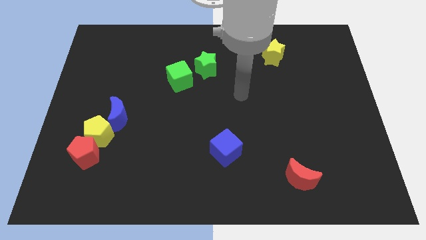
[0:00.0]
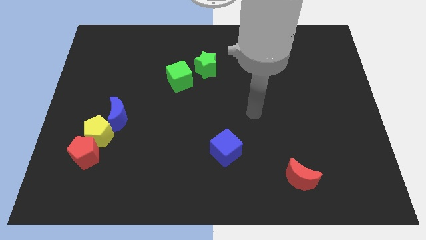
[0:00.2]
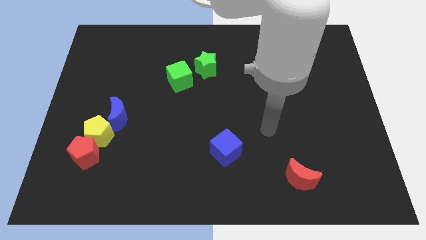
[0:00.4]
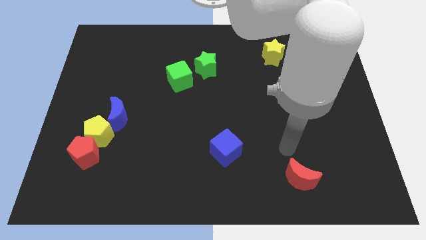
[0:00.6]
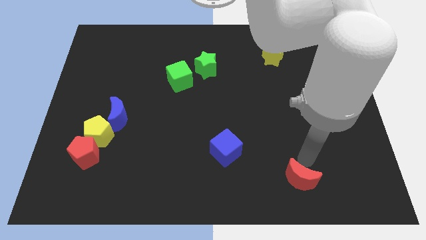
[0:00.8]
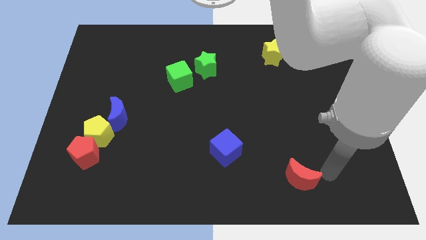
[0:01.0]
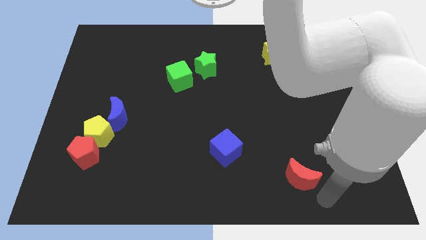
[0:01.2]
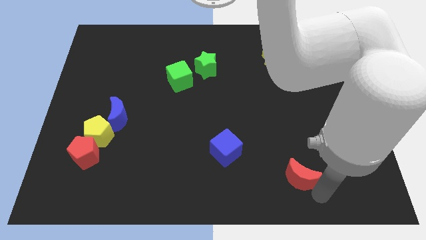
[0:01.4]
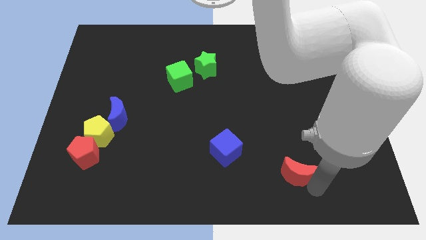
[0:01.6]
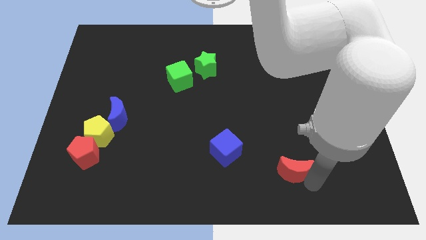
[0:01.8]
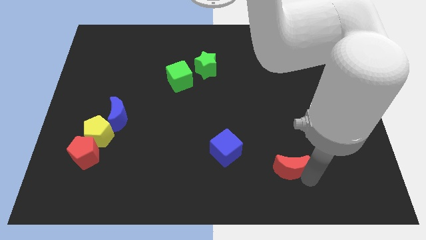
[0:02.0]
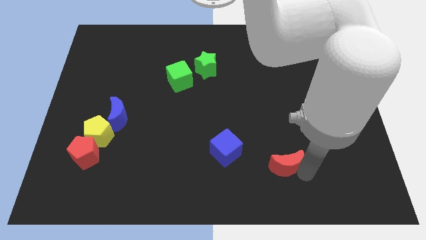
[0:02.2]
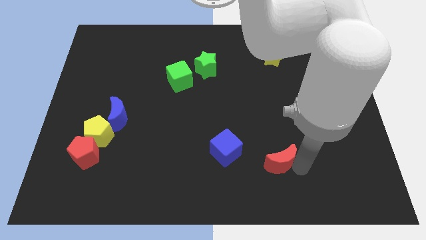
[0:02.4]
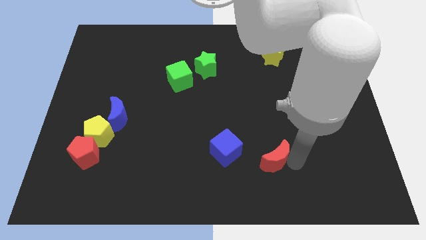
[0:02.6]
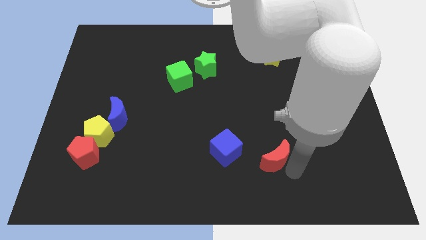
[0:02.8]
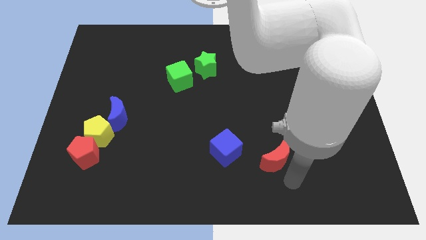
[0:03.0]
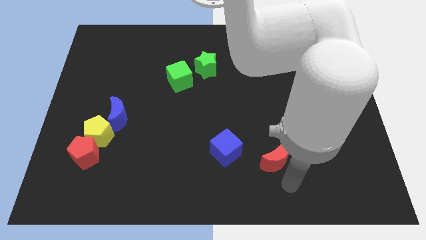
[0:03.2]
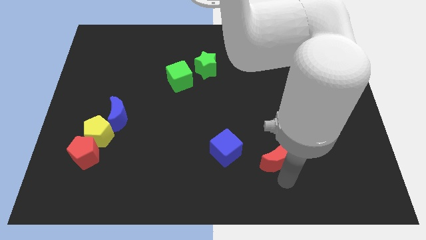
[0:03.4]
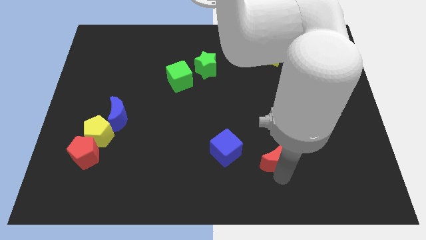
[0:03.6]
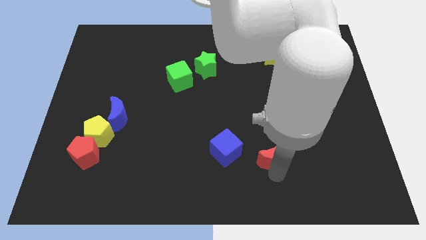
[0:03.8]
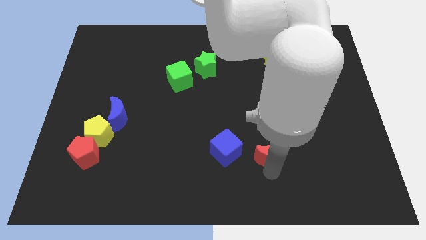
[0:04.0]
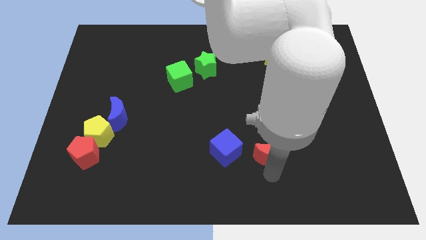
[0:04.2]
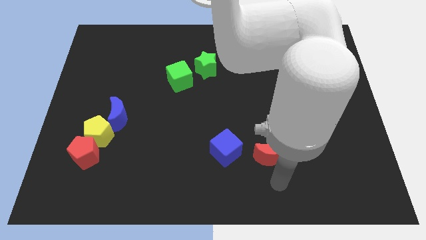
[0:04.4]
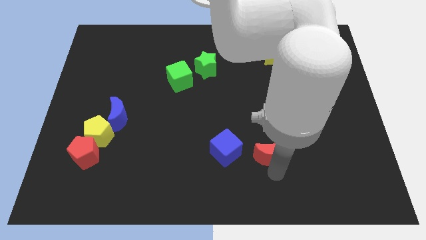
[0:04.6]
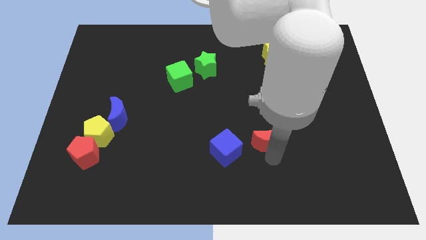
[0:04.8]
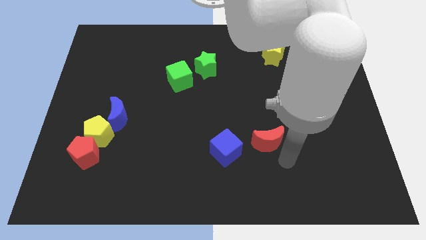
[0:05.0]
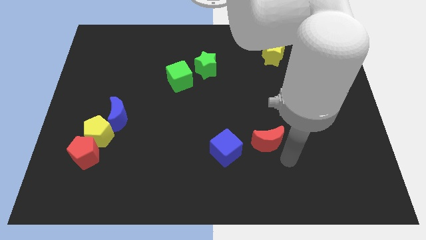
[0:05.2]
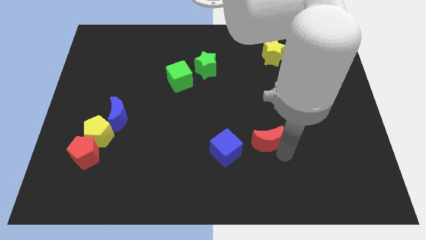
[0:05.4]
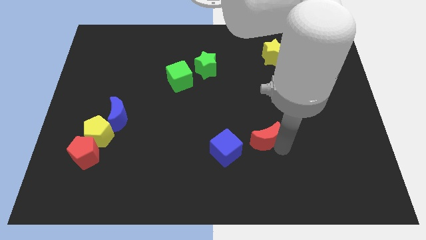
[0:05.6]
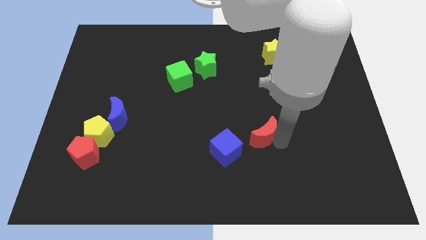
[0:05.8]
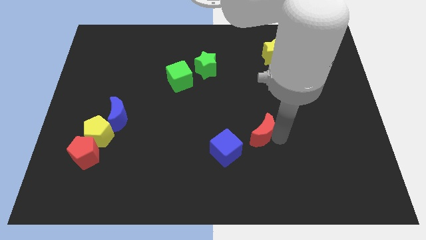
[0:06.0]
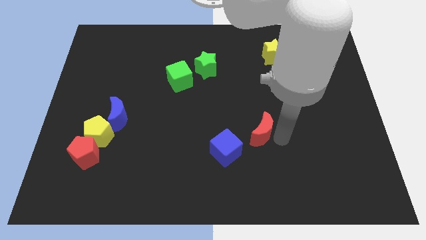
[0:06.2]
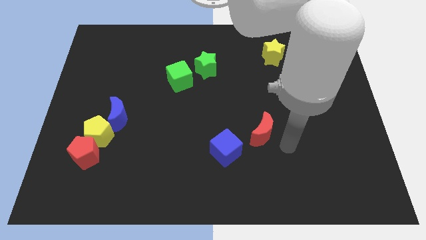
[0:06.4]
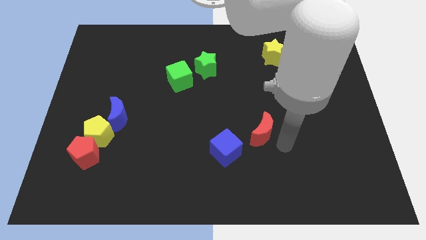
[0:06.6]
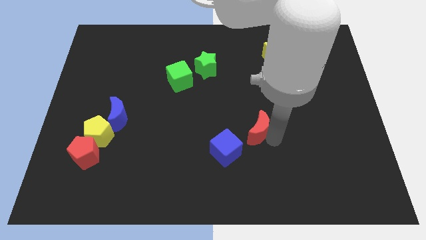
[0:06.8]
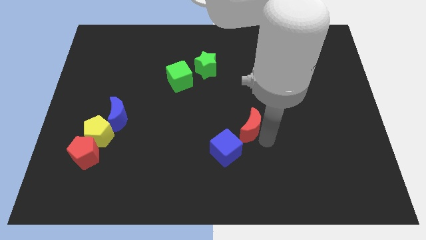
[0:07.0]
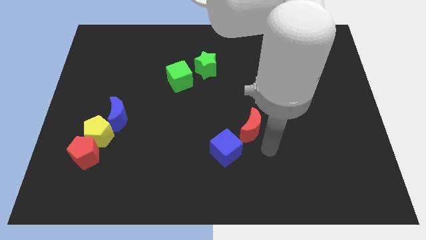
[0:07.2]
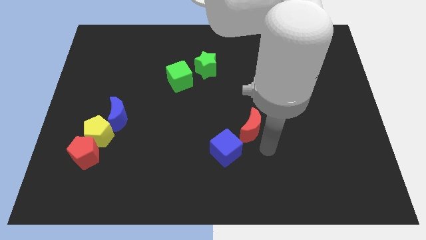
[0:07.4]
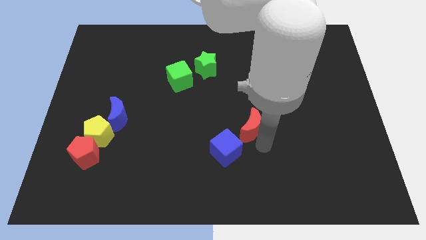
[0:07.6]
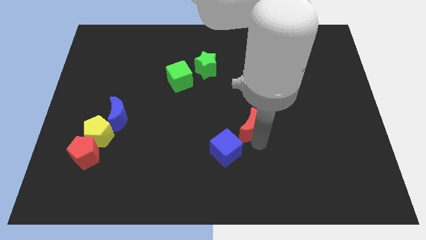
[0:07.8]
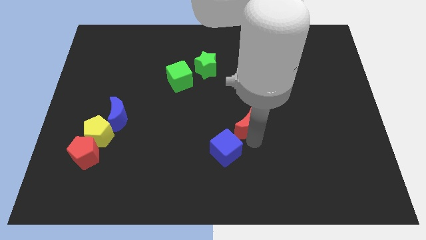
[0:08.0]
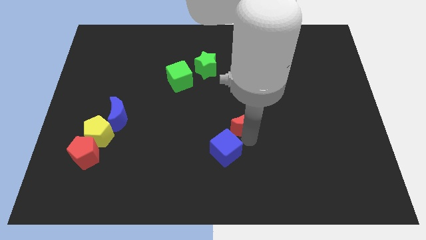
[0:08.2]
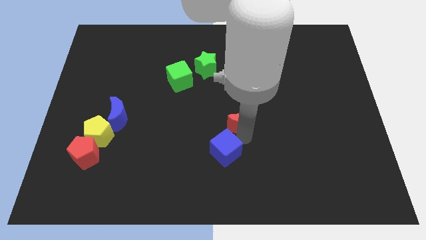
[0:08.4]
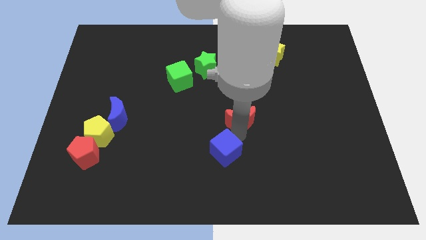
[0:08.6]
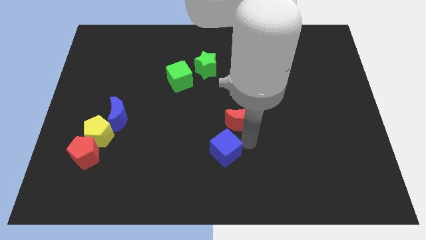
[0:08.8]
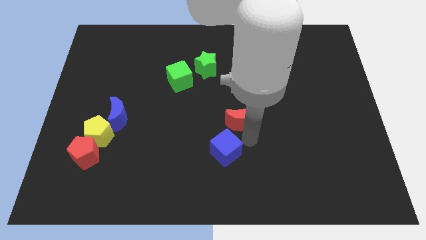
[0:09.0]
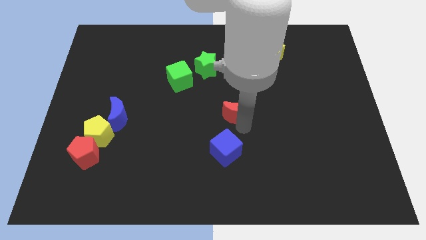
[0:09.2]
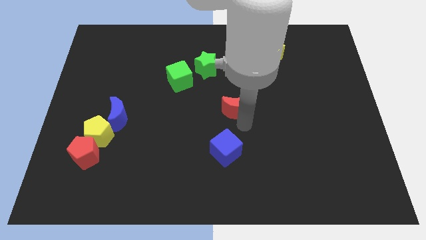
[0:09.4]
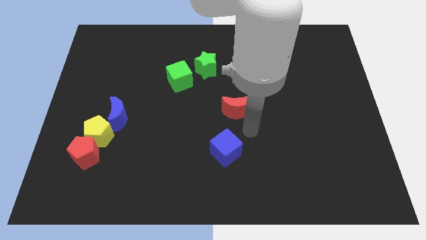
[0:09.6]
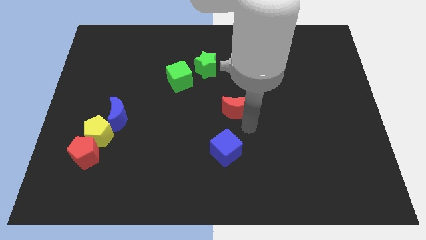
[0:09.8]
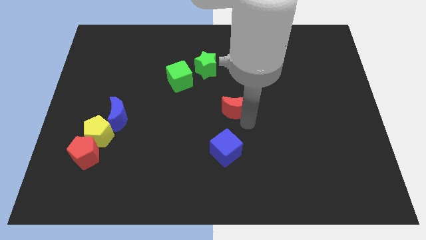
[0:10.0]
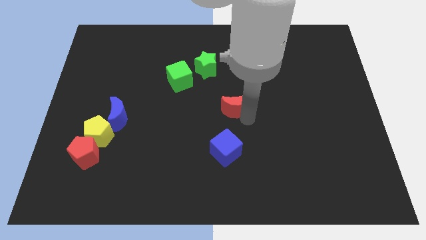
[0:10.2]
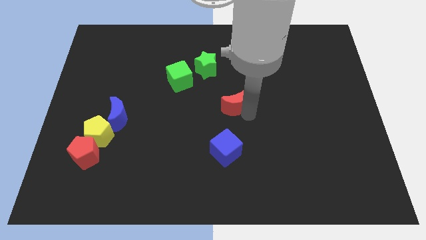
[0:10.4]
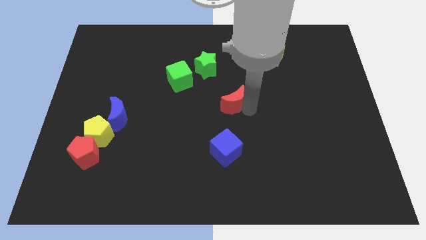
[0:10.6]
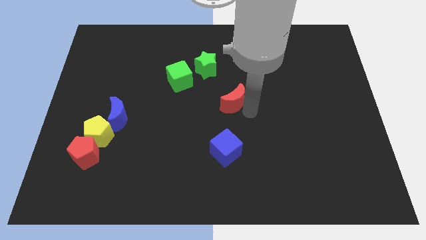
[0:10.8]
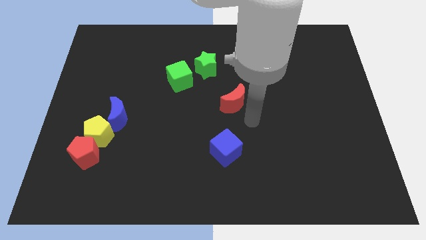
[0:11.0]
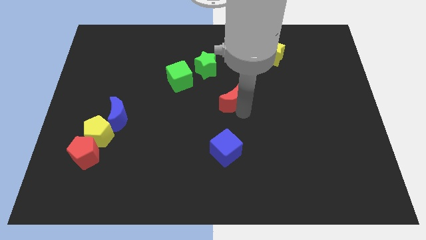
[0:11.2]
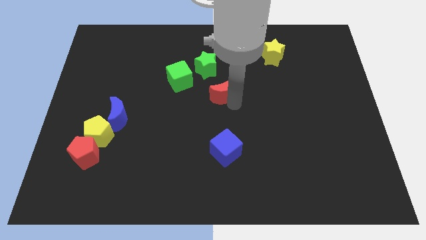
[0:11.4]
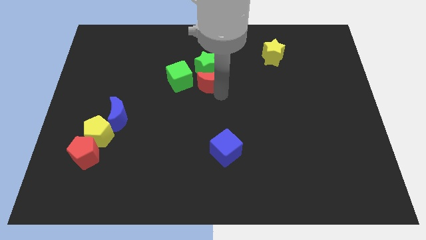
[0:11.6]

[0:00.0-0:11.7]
slide the red moon towards the green star

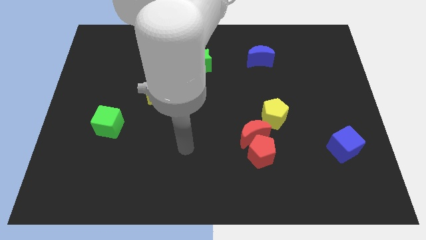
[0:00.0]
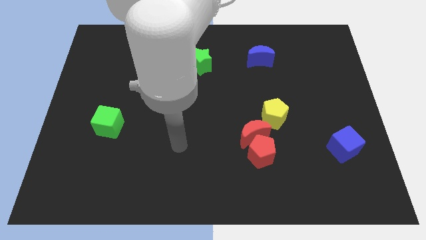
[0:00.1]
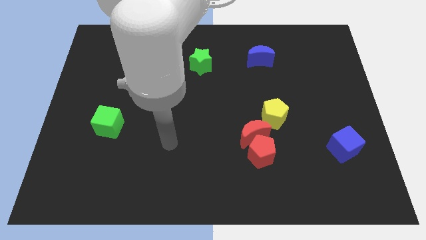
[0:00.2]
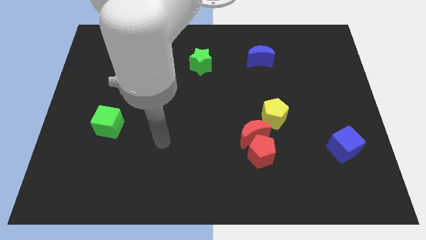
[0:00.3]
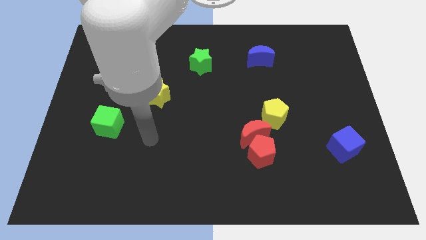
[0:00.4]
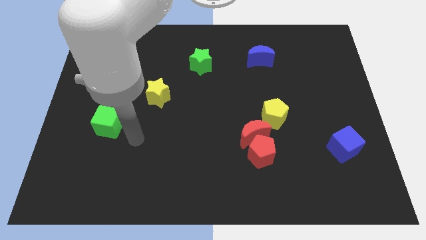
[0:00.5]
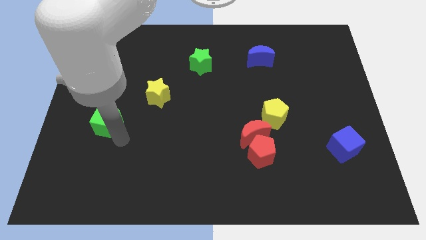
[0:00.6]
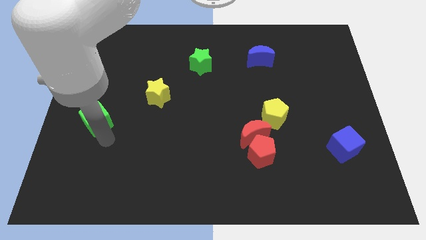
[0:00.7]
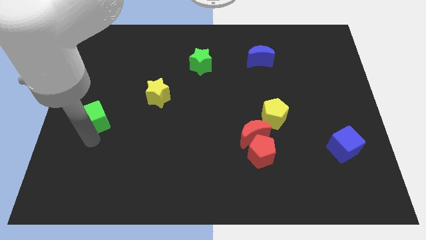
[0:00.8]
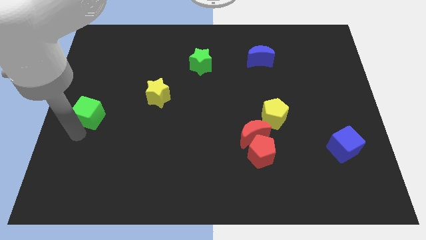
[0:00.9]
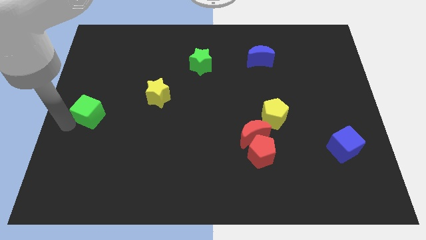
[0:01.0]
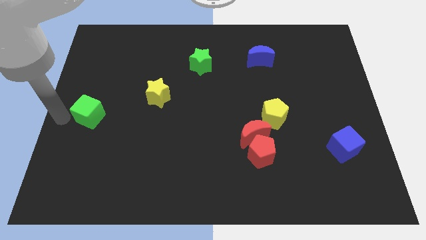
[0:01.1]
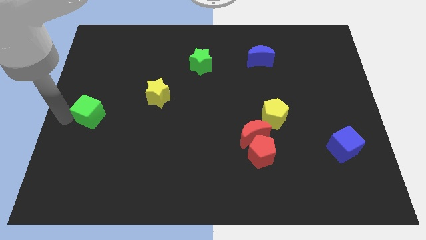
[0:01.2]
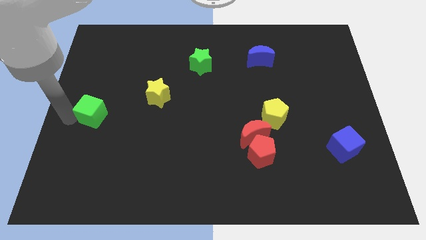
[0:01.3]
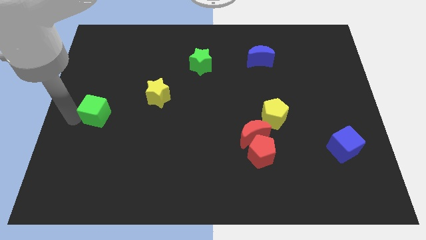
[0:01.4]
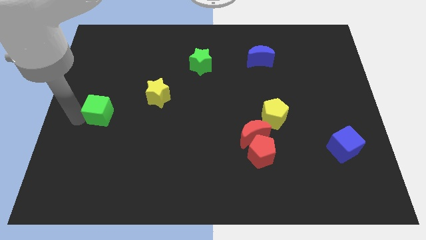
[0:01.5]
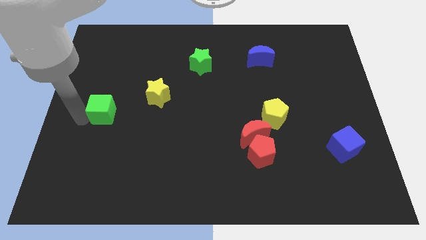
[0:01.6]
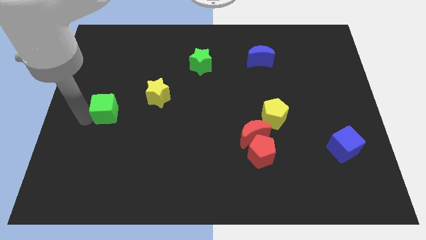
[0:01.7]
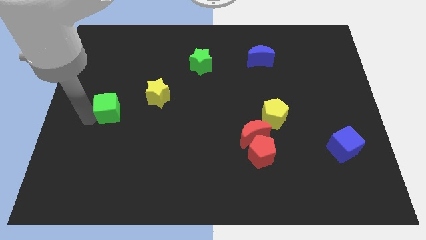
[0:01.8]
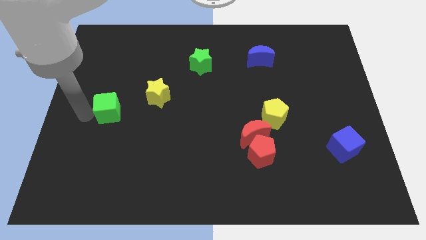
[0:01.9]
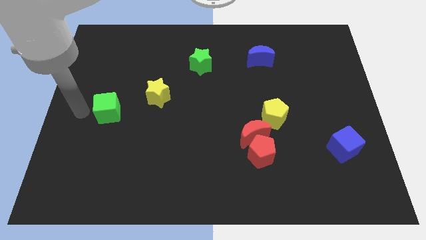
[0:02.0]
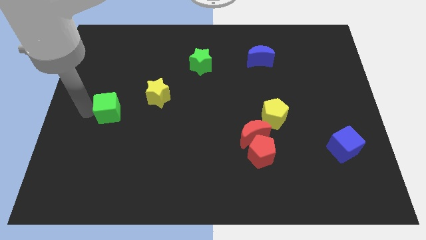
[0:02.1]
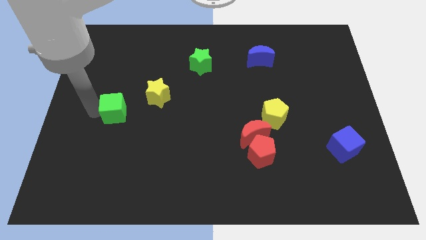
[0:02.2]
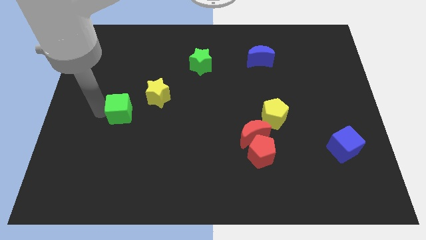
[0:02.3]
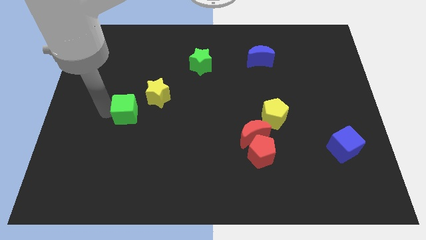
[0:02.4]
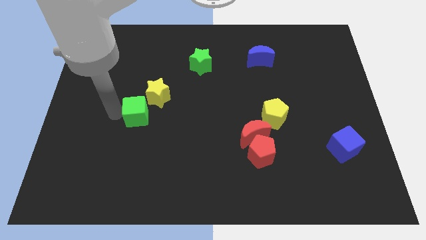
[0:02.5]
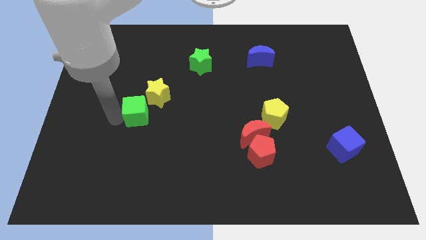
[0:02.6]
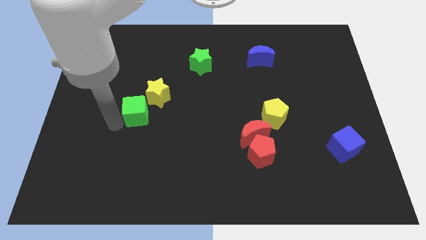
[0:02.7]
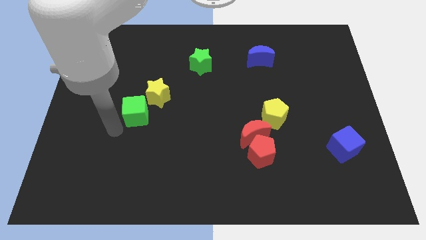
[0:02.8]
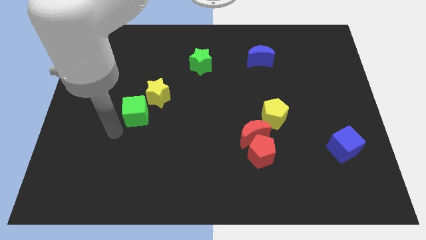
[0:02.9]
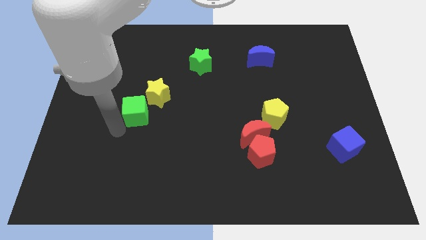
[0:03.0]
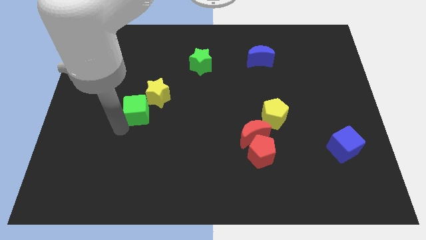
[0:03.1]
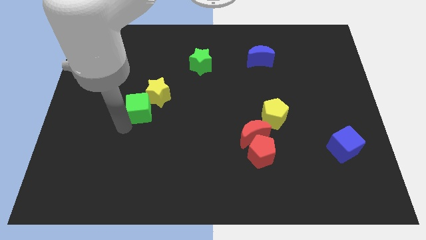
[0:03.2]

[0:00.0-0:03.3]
put the green cube close to the yellow star
